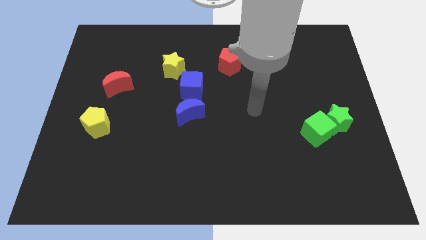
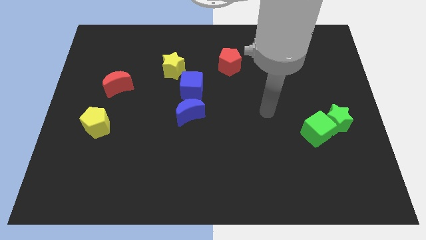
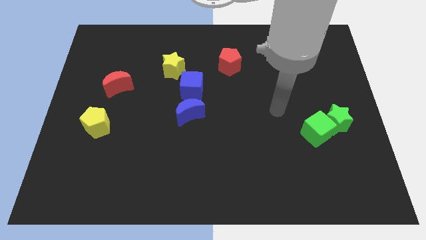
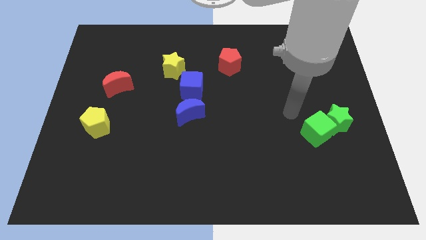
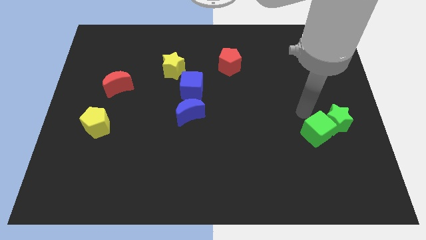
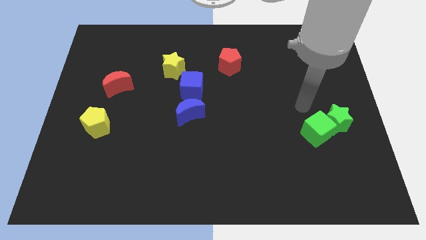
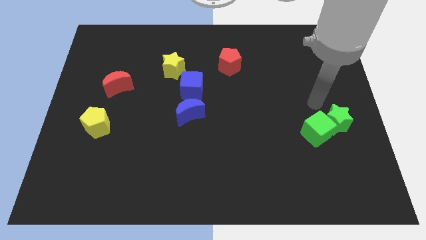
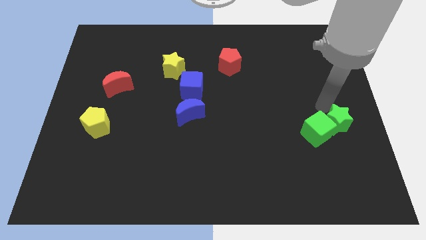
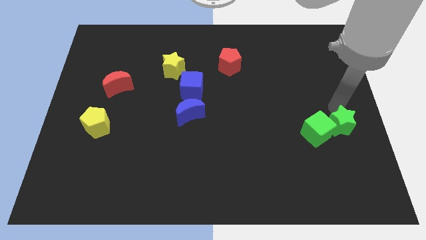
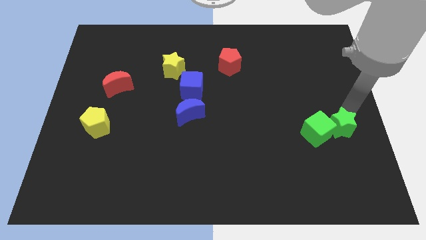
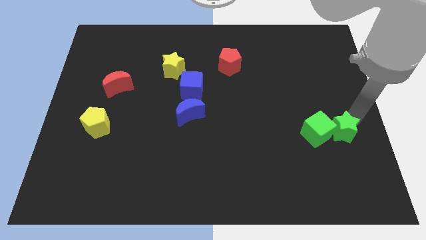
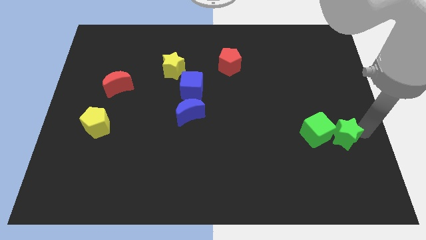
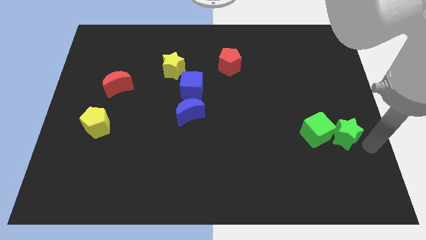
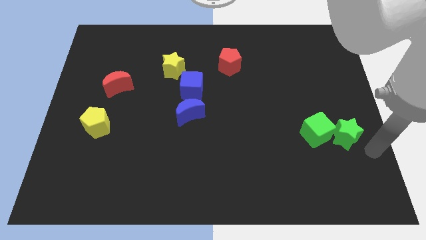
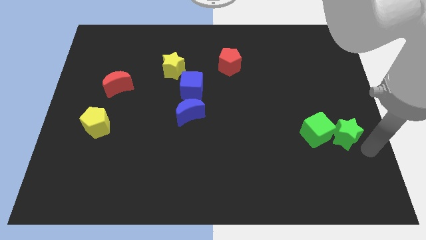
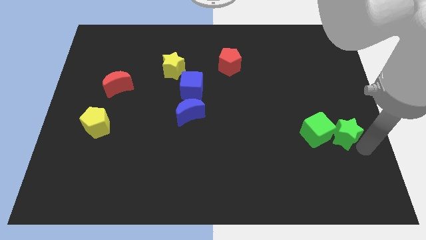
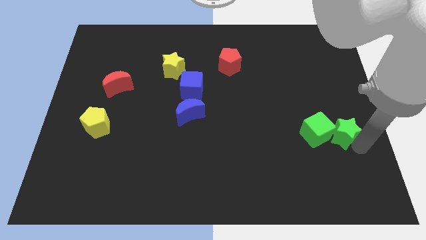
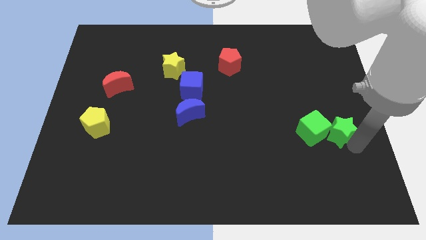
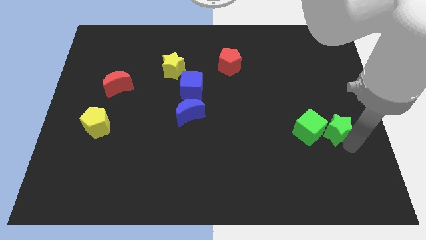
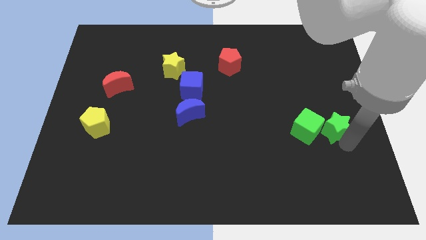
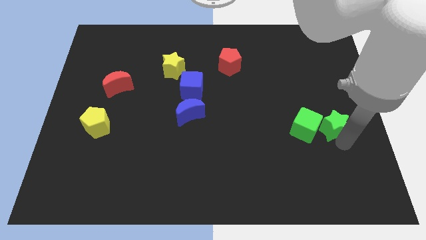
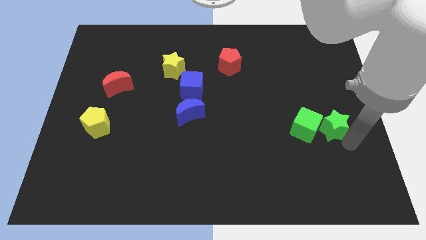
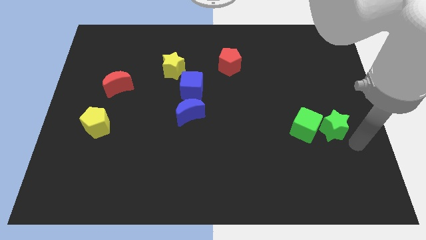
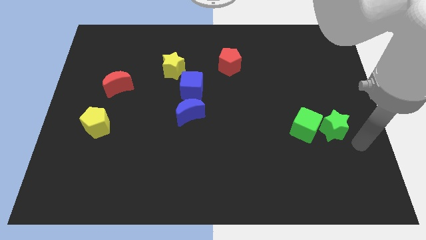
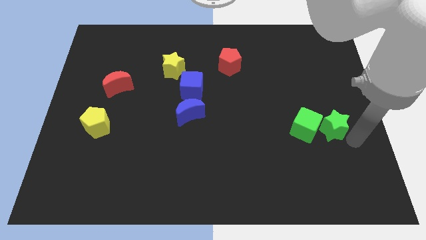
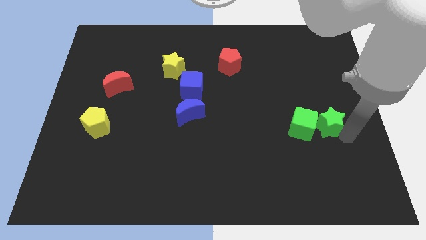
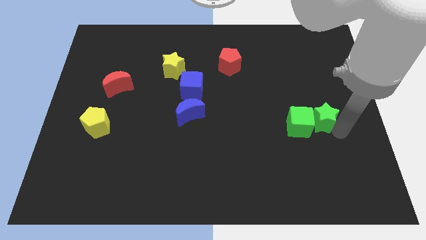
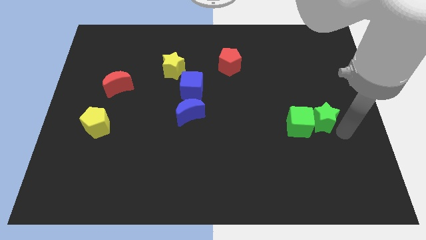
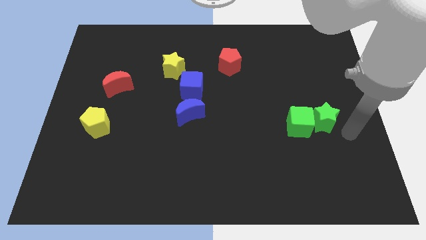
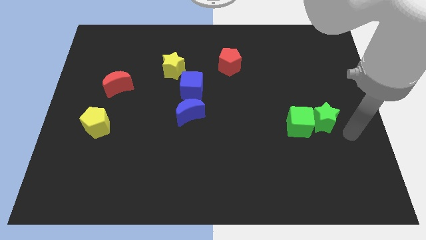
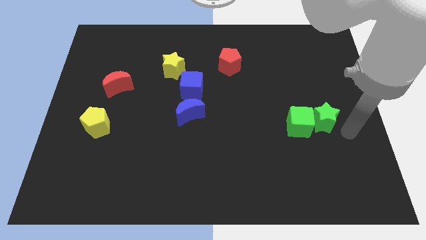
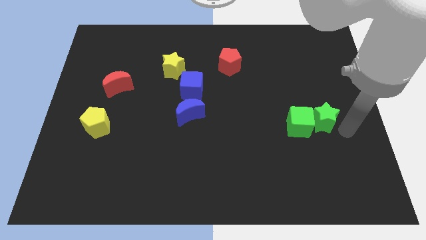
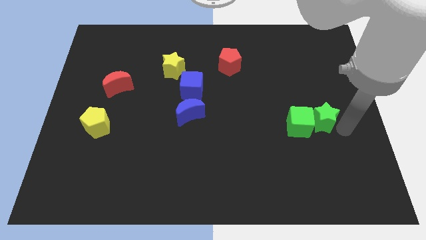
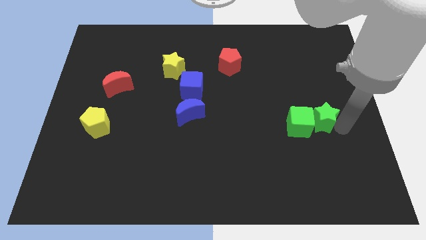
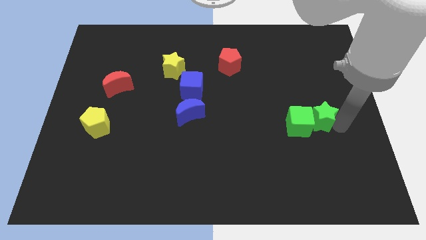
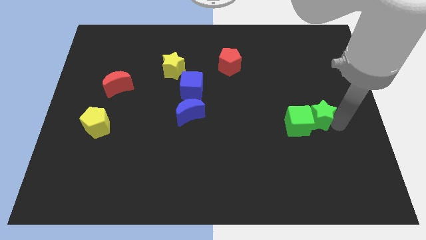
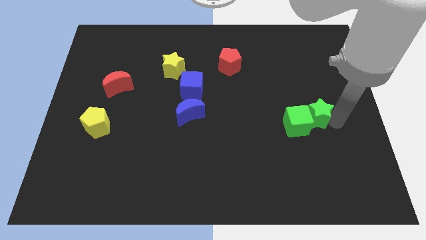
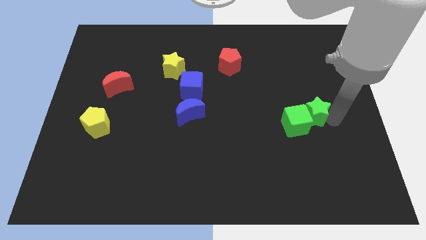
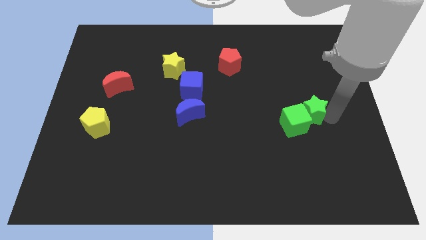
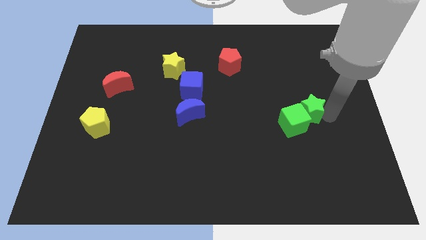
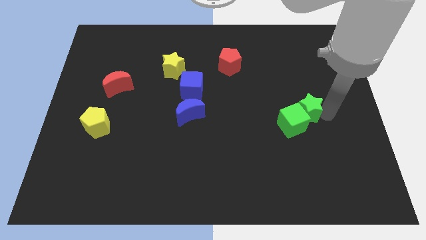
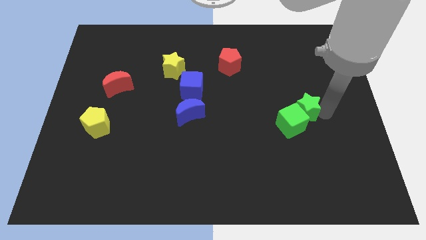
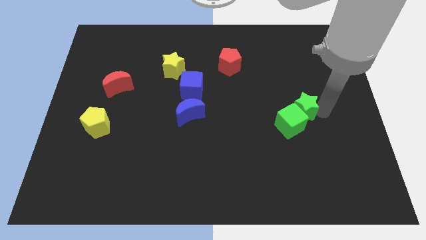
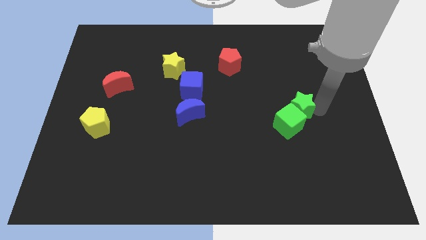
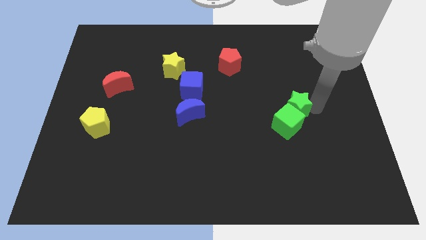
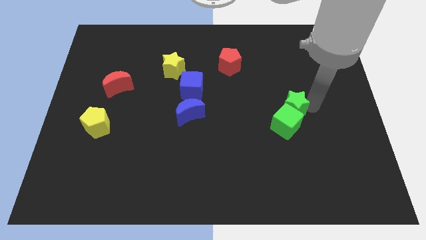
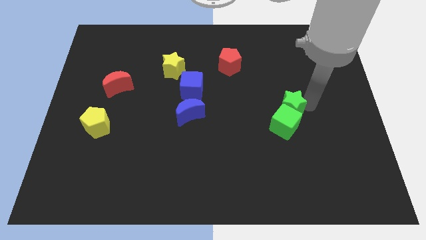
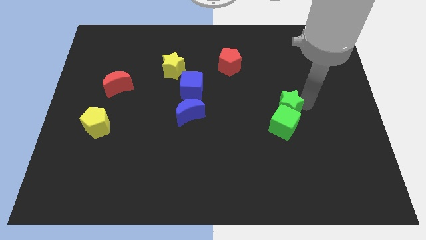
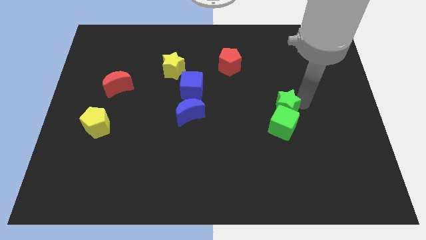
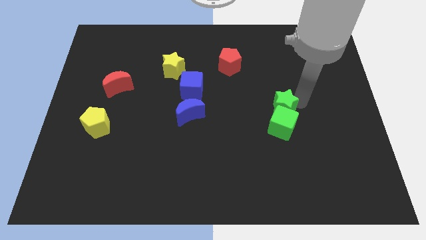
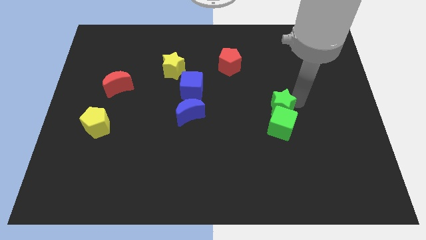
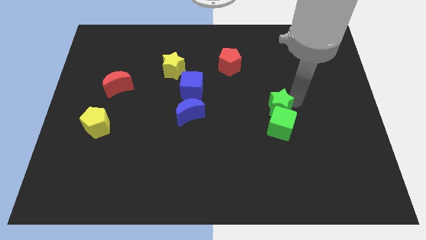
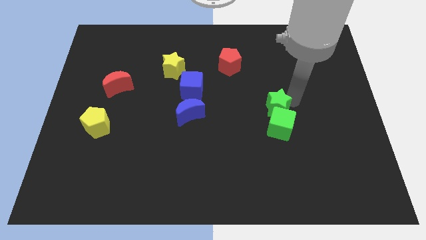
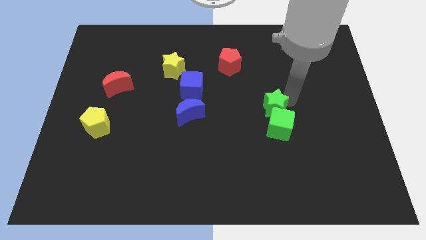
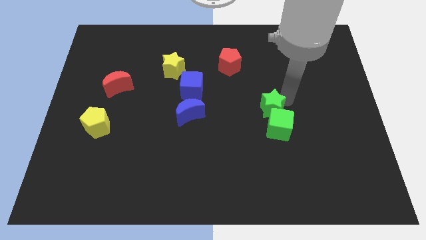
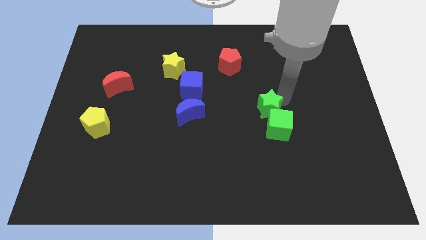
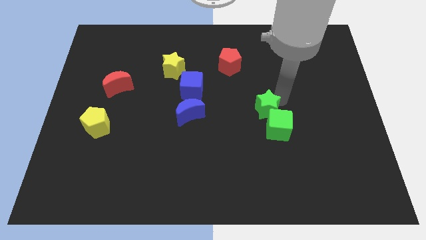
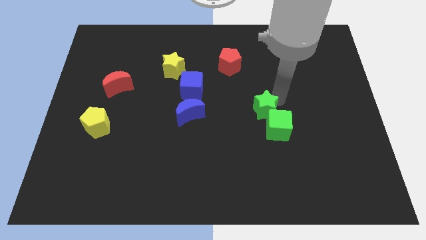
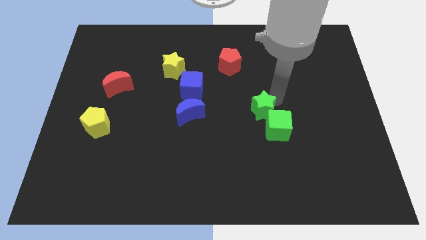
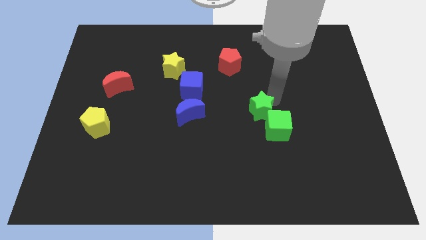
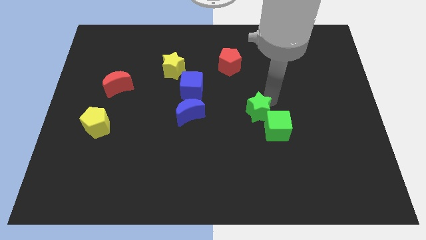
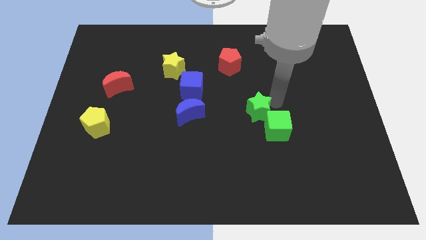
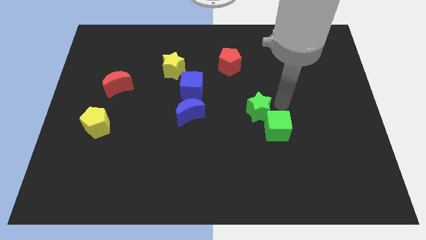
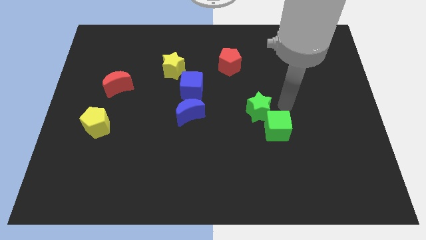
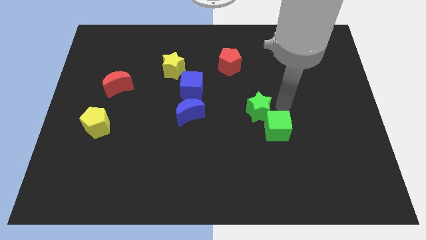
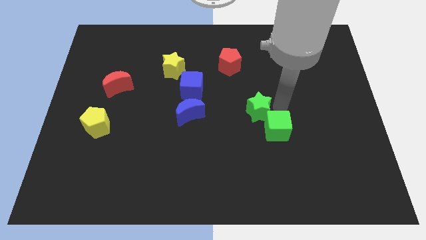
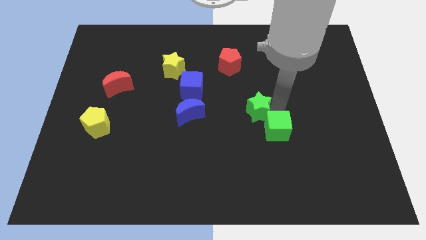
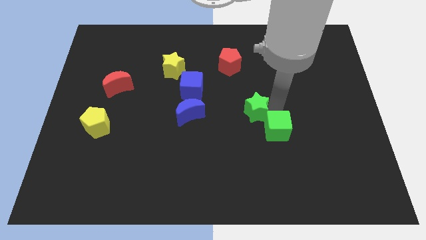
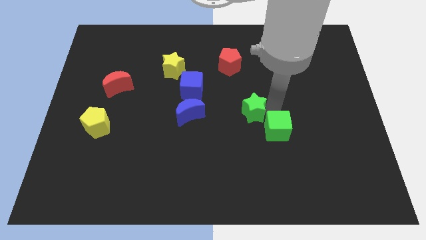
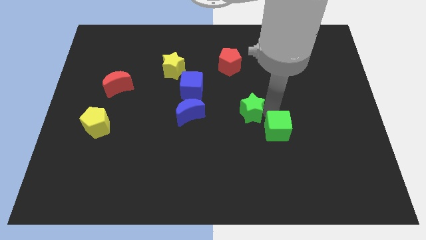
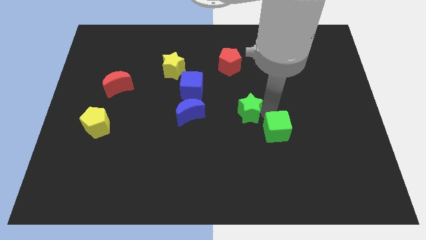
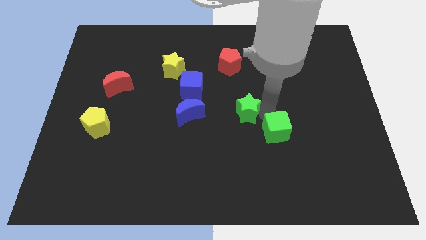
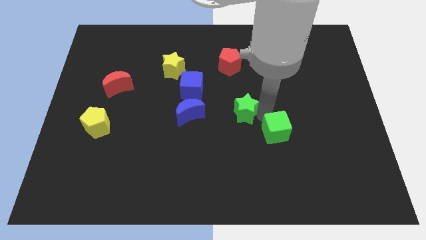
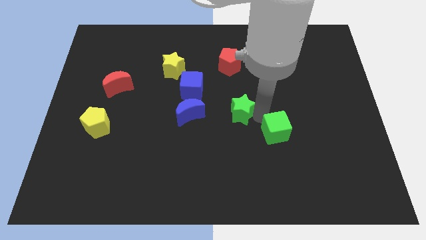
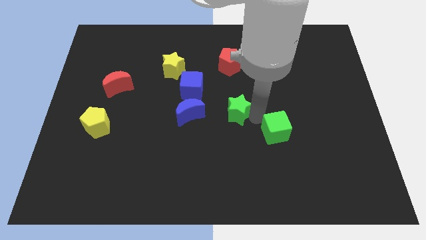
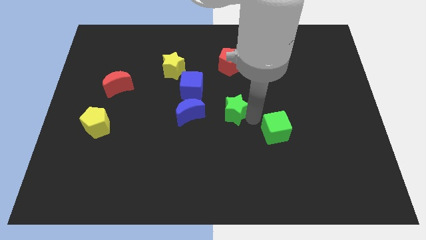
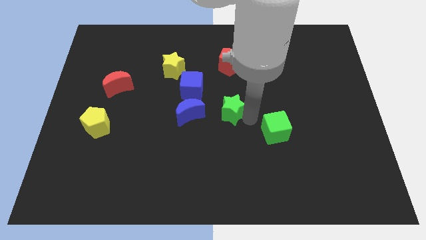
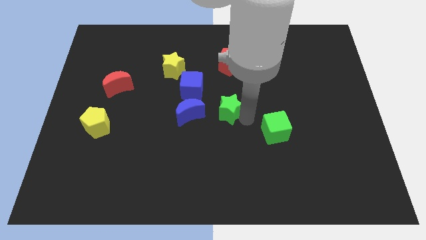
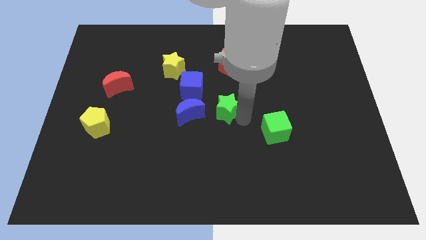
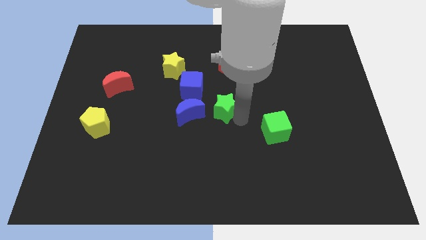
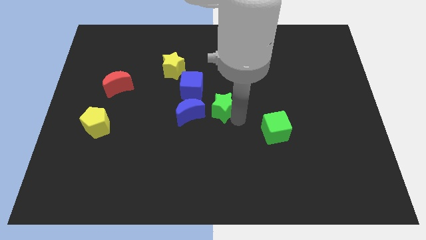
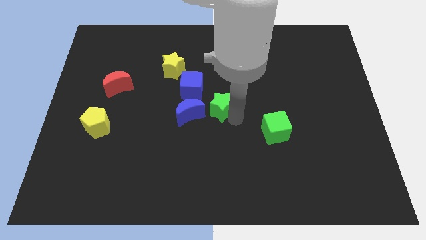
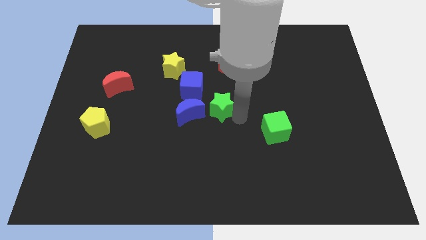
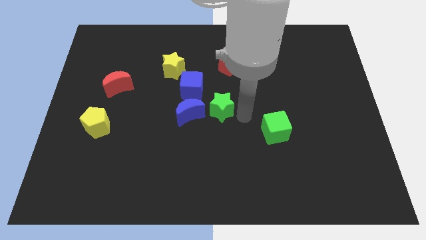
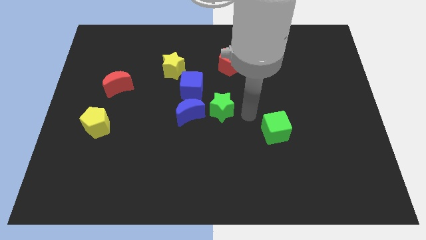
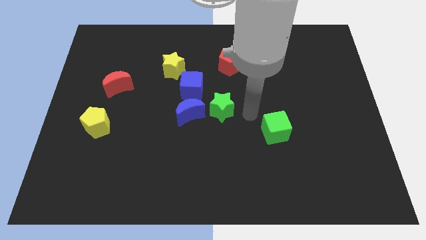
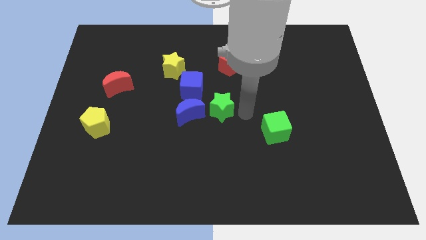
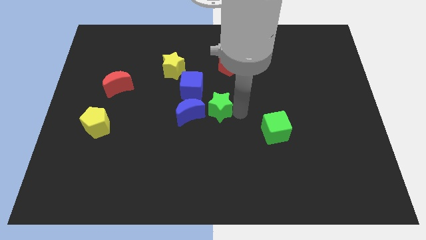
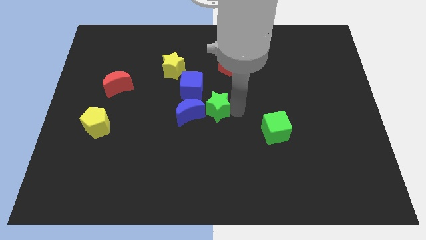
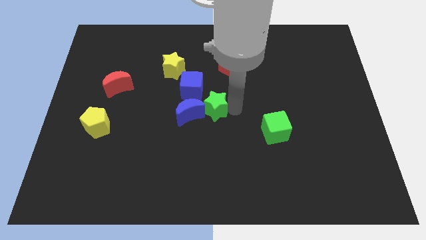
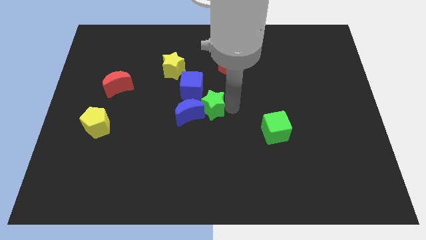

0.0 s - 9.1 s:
put the green star close to the blue moon
